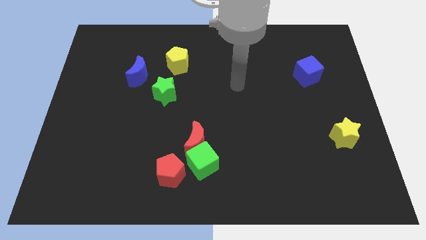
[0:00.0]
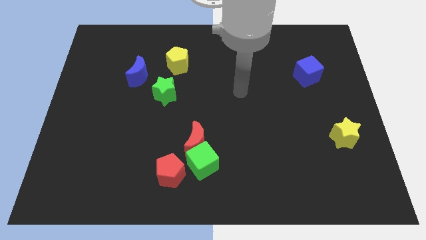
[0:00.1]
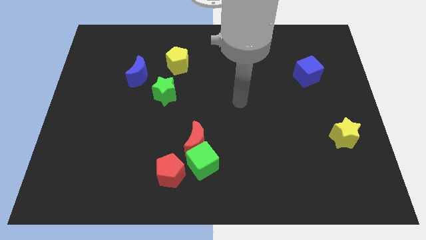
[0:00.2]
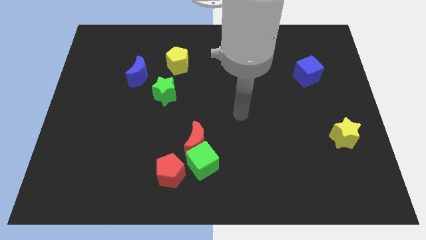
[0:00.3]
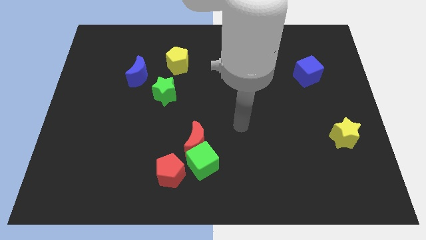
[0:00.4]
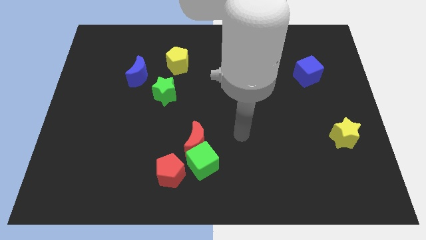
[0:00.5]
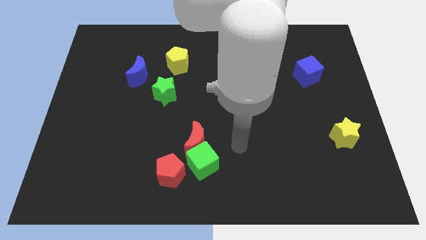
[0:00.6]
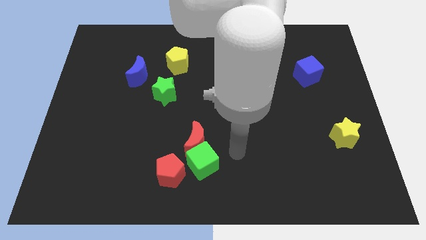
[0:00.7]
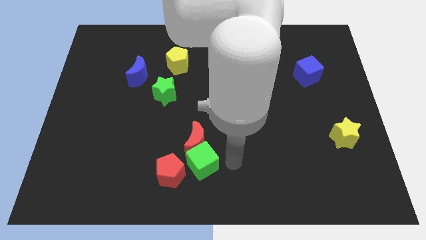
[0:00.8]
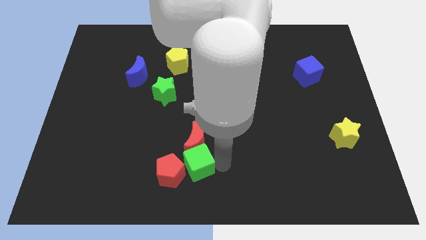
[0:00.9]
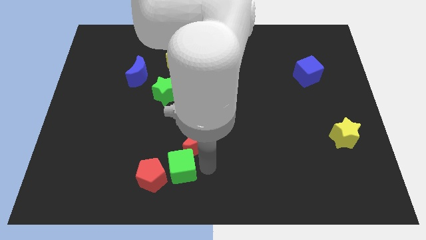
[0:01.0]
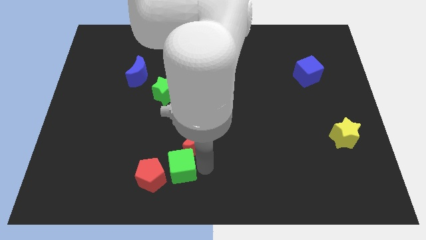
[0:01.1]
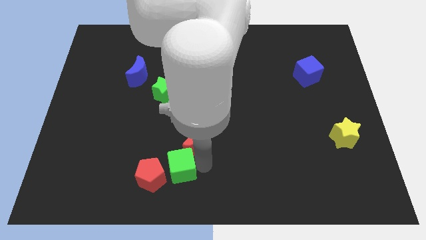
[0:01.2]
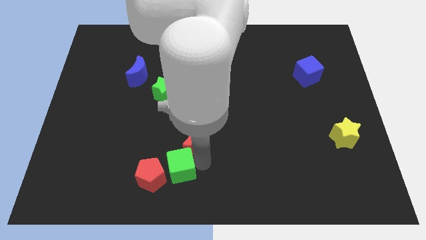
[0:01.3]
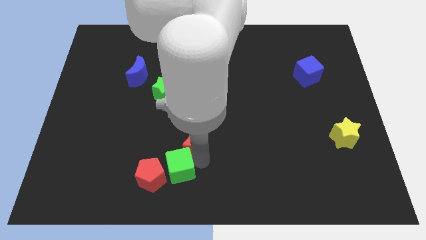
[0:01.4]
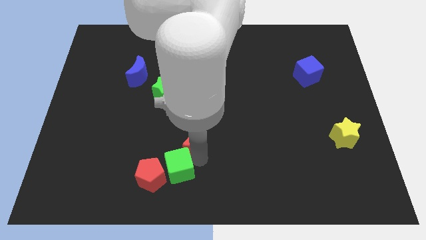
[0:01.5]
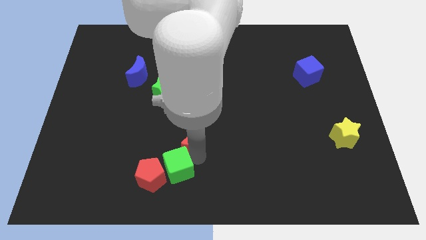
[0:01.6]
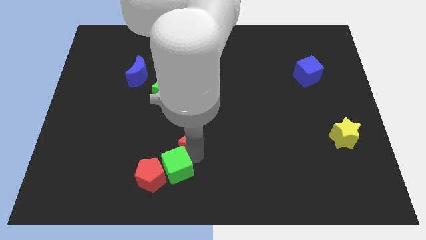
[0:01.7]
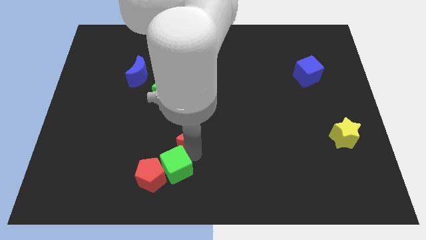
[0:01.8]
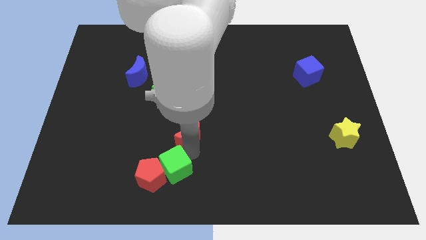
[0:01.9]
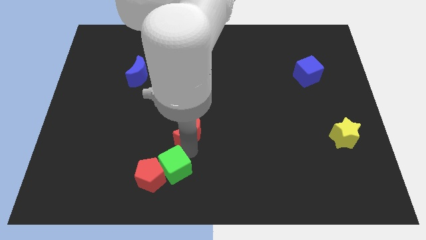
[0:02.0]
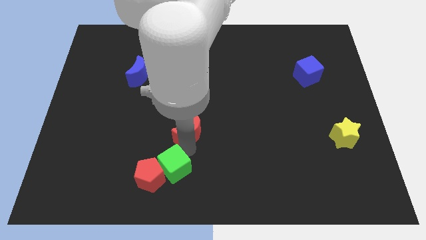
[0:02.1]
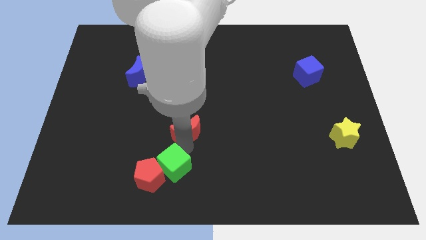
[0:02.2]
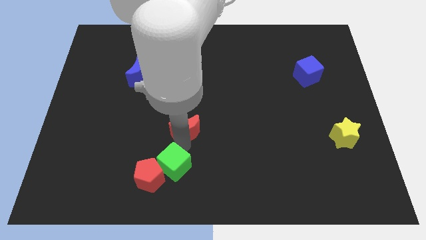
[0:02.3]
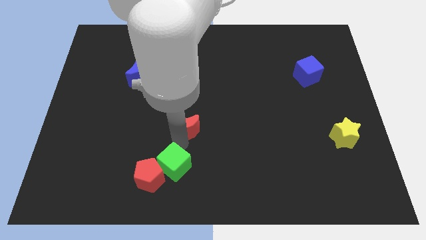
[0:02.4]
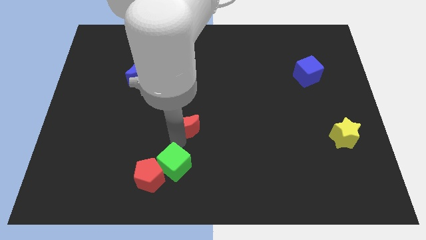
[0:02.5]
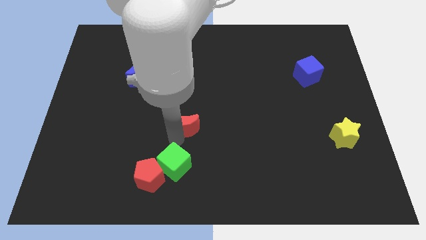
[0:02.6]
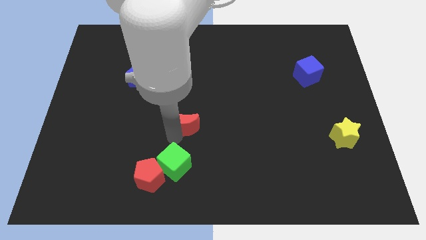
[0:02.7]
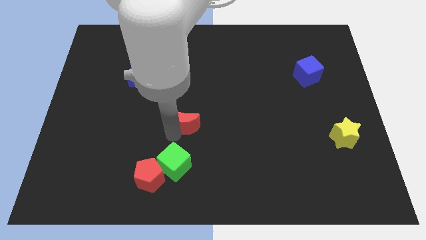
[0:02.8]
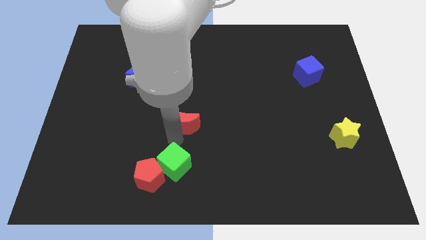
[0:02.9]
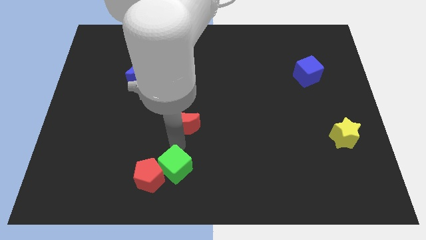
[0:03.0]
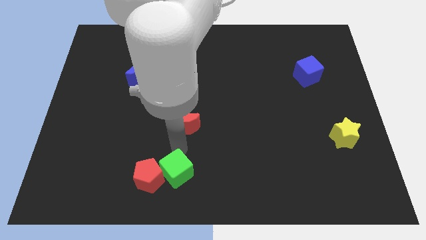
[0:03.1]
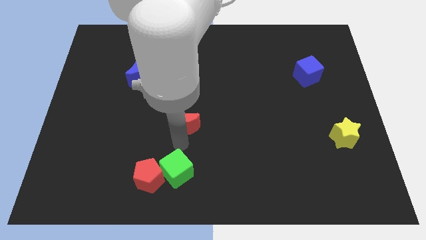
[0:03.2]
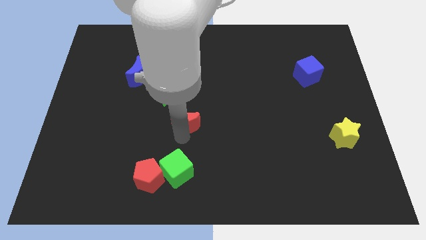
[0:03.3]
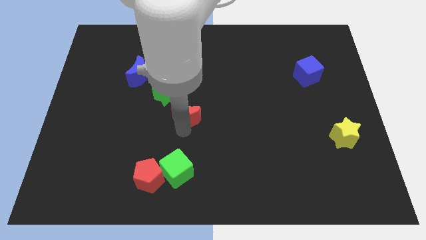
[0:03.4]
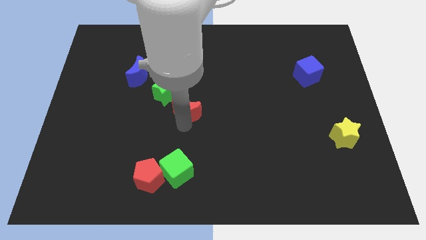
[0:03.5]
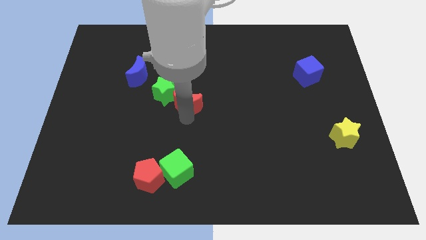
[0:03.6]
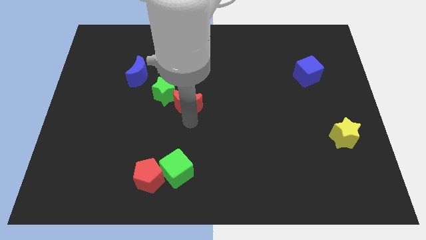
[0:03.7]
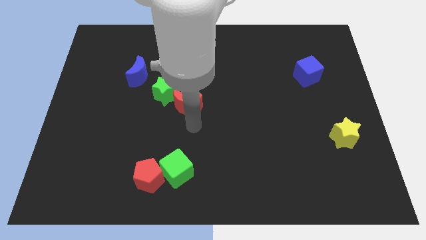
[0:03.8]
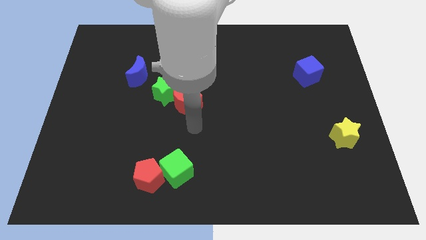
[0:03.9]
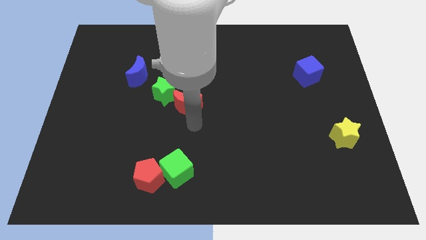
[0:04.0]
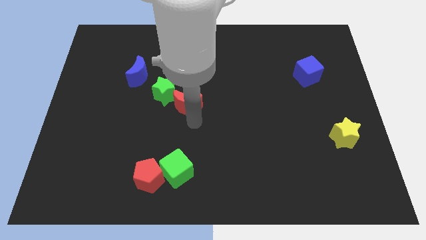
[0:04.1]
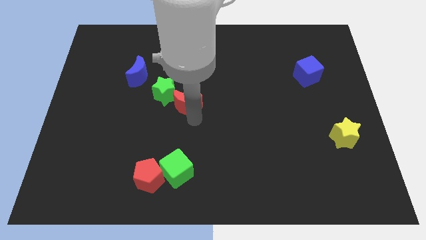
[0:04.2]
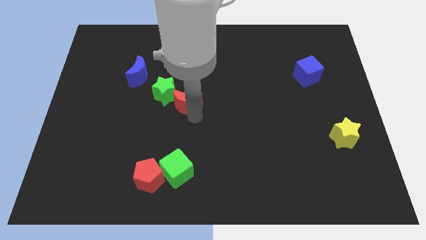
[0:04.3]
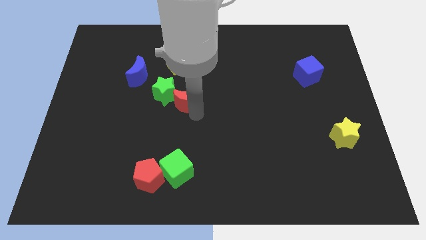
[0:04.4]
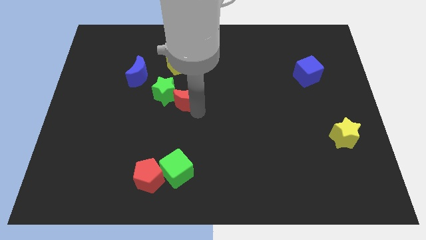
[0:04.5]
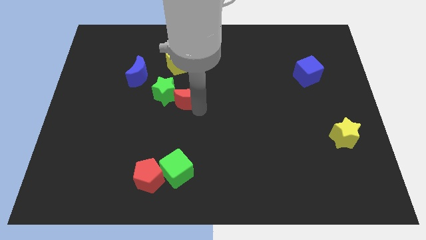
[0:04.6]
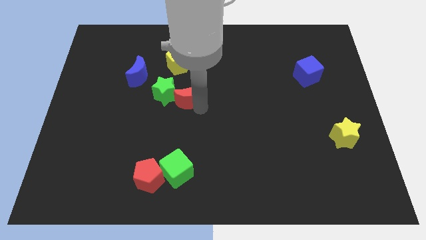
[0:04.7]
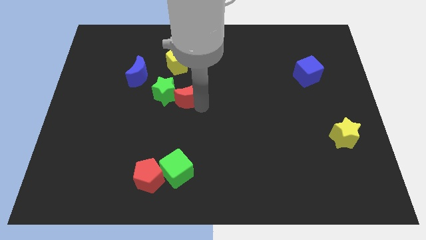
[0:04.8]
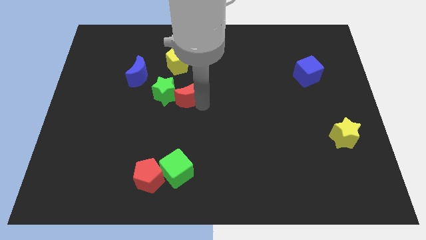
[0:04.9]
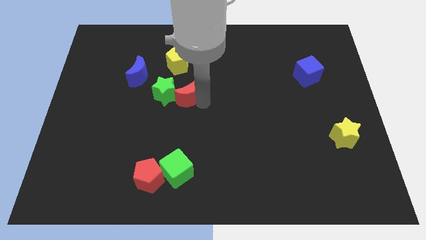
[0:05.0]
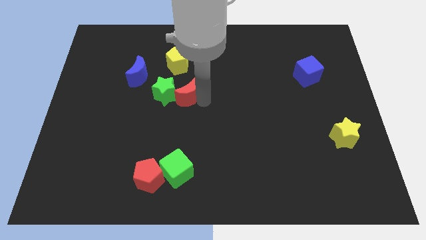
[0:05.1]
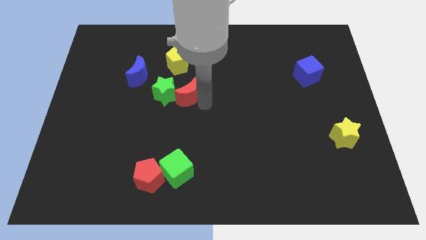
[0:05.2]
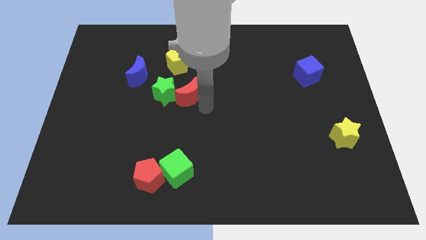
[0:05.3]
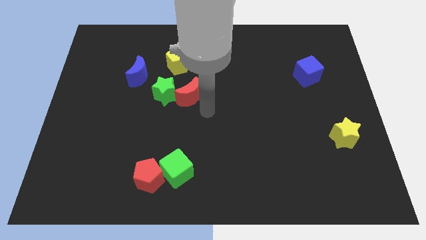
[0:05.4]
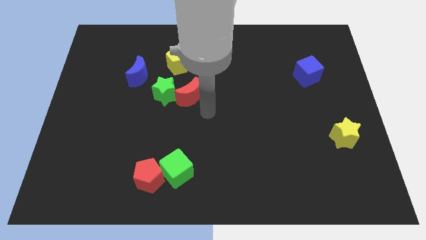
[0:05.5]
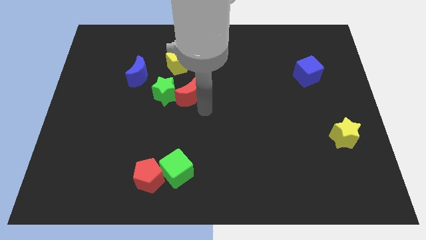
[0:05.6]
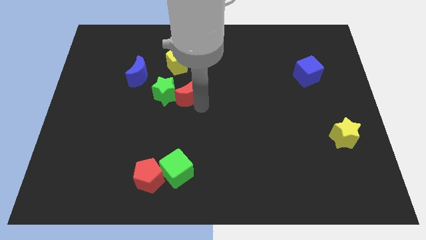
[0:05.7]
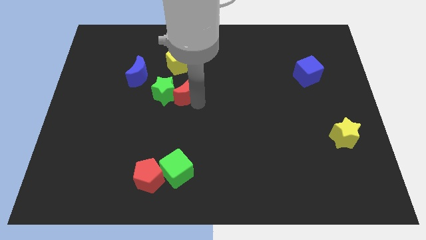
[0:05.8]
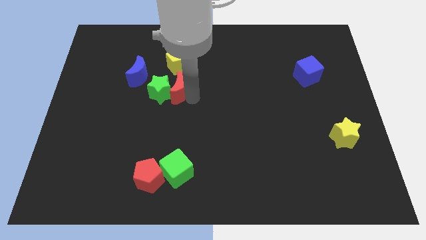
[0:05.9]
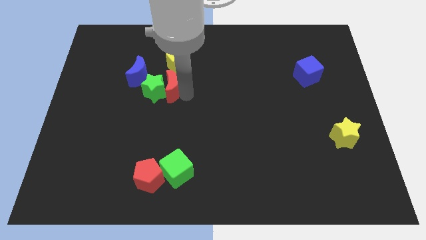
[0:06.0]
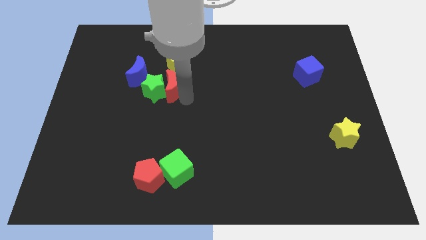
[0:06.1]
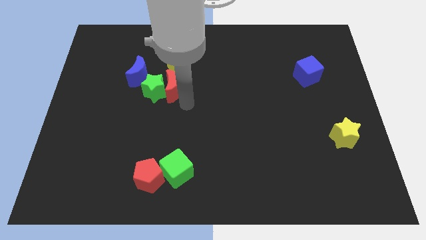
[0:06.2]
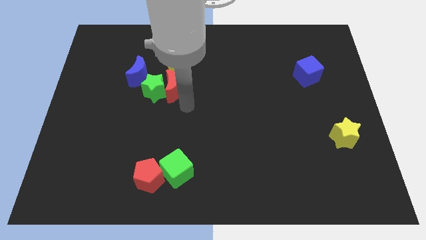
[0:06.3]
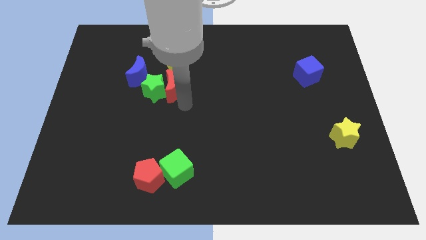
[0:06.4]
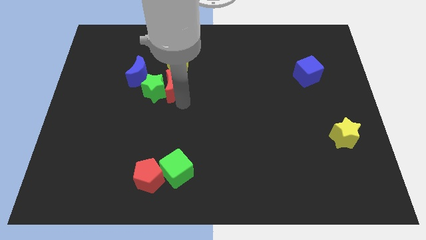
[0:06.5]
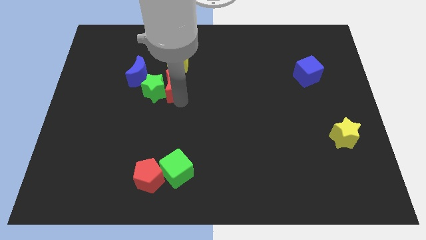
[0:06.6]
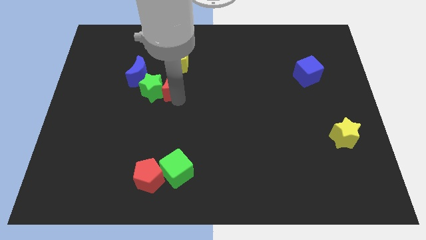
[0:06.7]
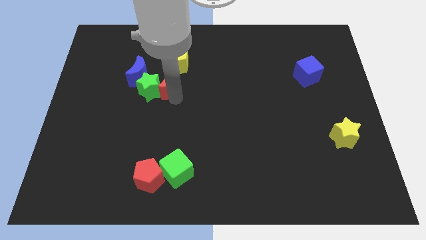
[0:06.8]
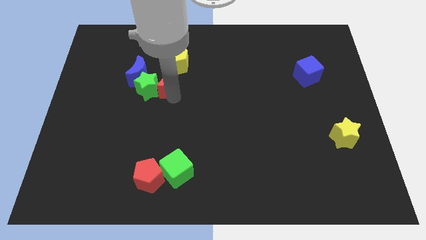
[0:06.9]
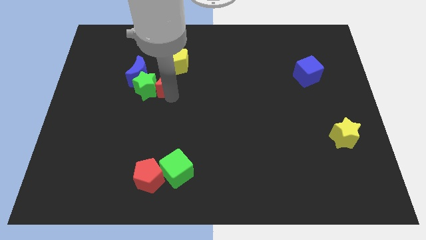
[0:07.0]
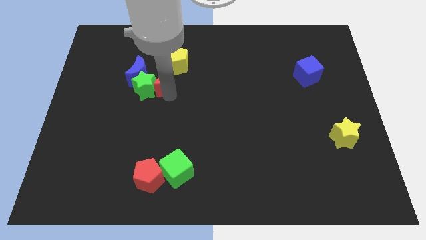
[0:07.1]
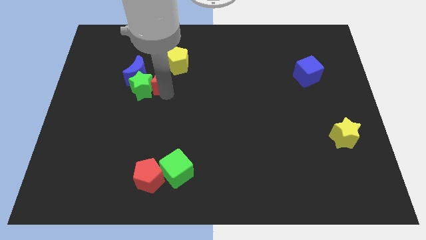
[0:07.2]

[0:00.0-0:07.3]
put the red moon to the top of the green star

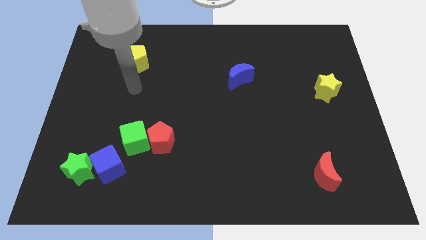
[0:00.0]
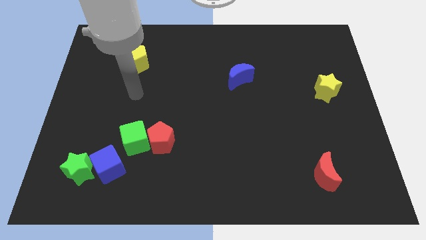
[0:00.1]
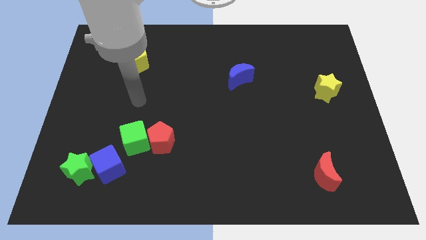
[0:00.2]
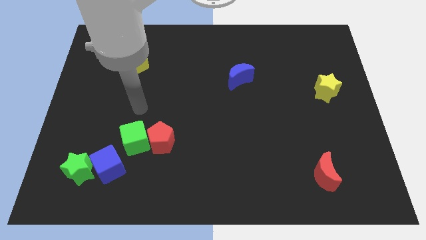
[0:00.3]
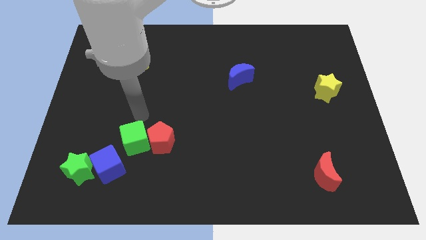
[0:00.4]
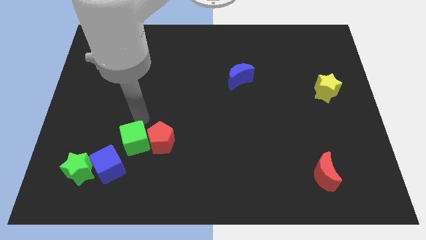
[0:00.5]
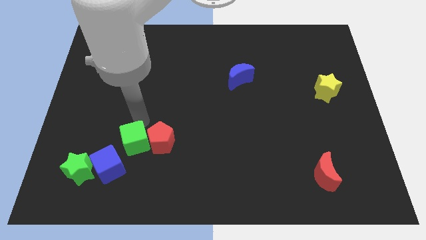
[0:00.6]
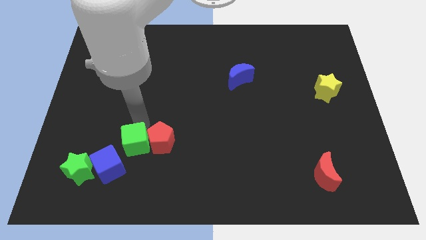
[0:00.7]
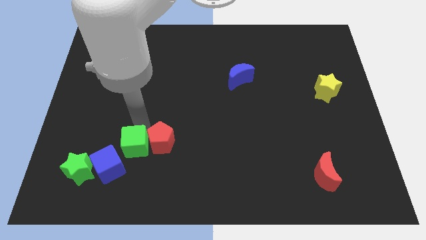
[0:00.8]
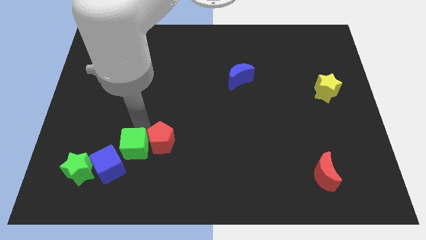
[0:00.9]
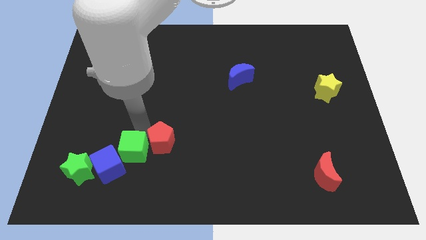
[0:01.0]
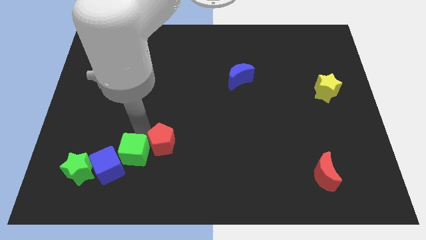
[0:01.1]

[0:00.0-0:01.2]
slide the green cube to the right of the green star
